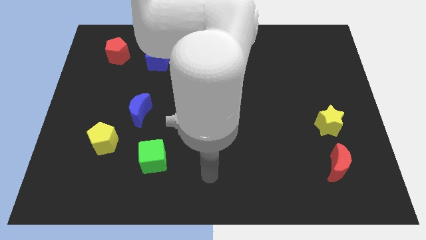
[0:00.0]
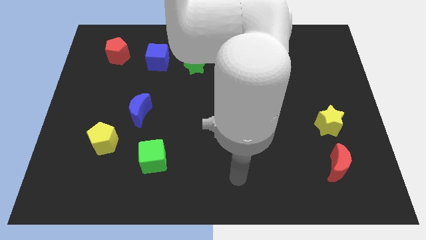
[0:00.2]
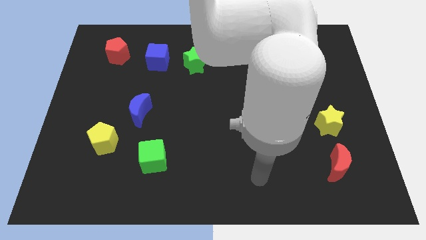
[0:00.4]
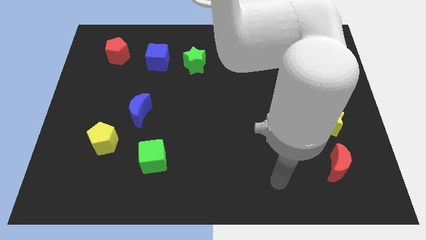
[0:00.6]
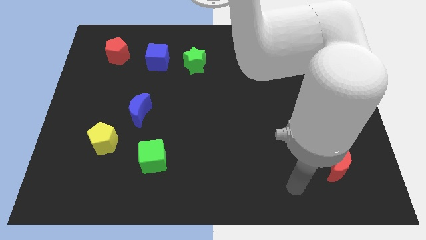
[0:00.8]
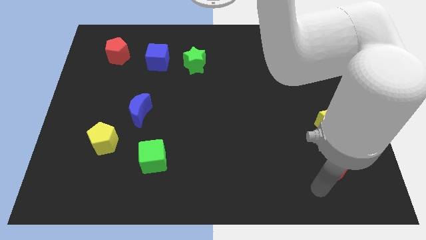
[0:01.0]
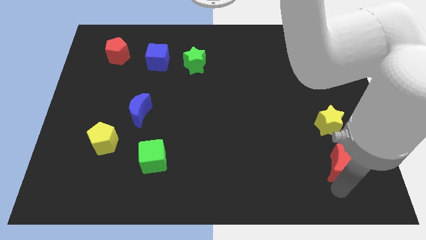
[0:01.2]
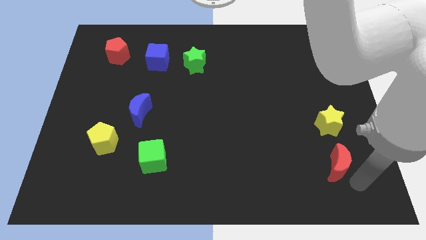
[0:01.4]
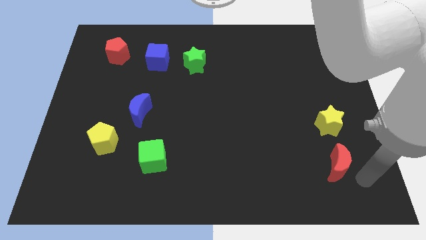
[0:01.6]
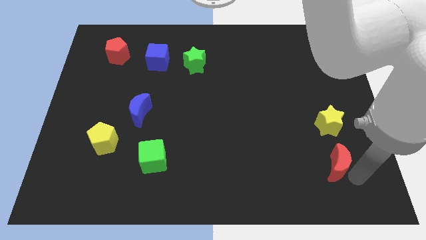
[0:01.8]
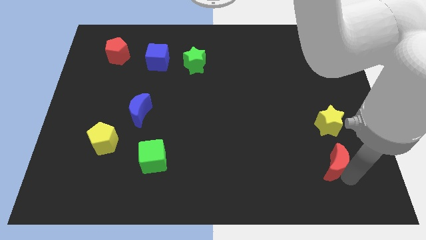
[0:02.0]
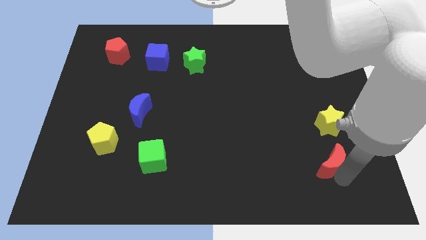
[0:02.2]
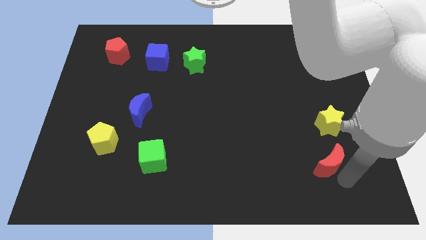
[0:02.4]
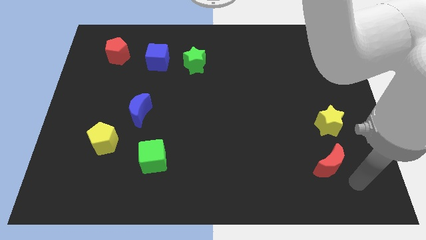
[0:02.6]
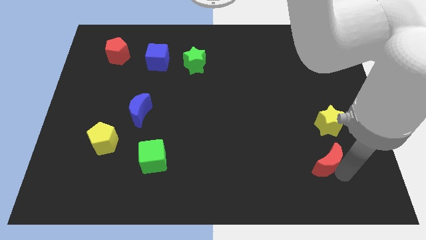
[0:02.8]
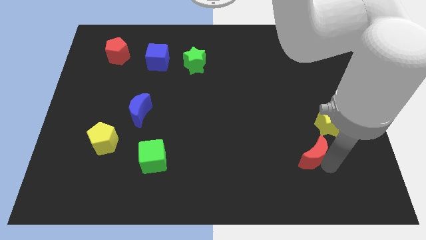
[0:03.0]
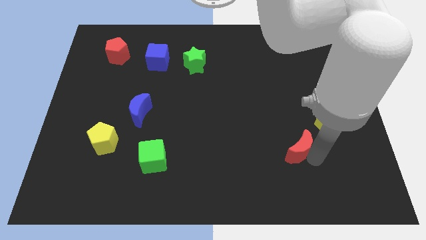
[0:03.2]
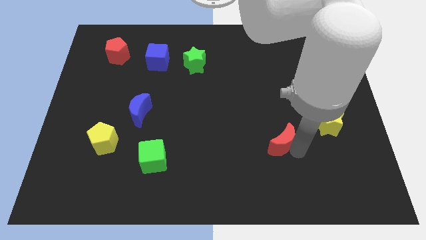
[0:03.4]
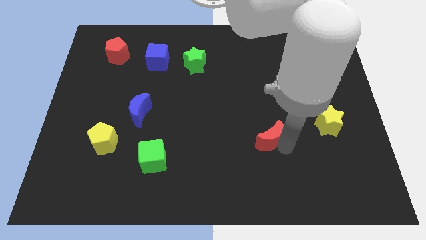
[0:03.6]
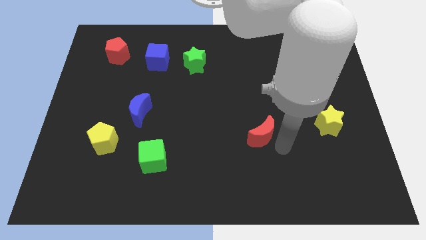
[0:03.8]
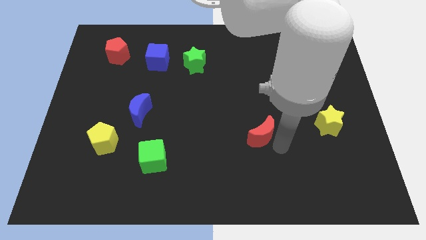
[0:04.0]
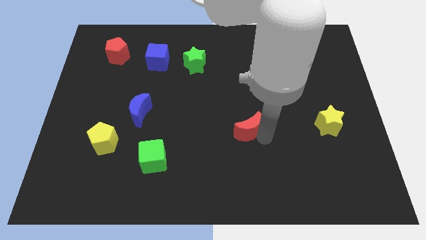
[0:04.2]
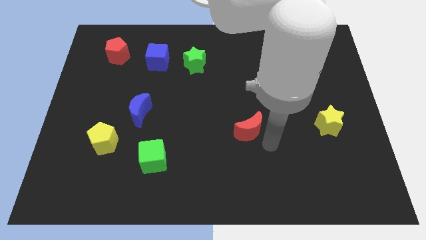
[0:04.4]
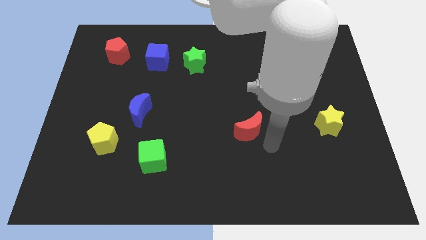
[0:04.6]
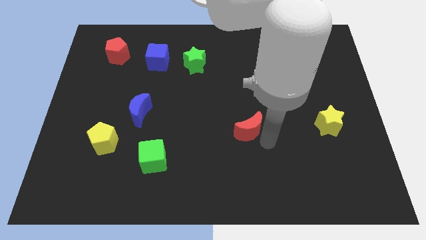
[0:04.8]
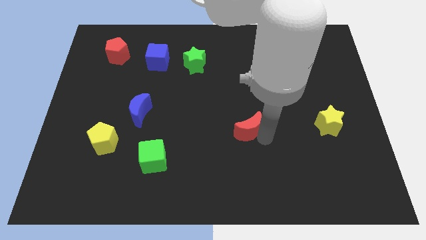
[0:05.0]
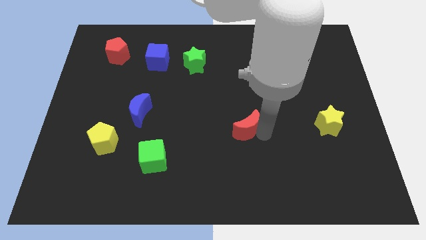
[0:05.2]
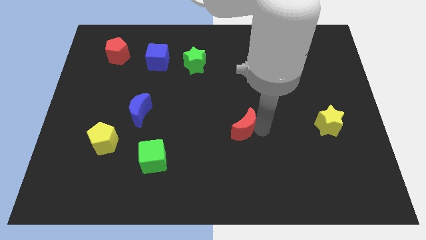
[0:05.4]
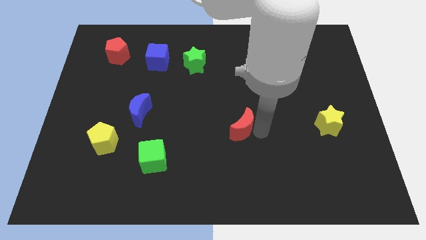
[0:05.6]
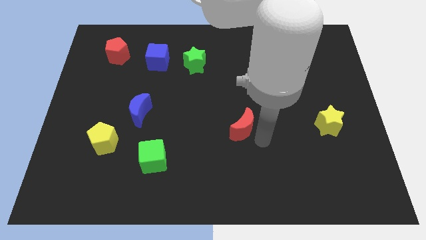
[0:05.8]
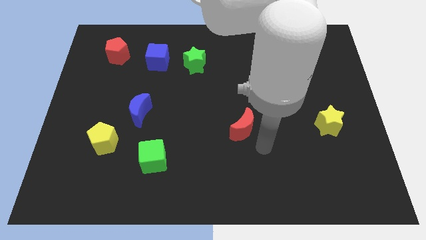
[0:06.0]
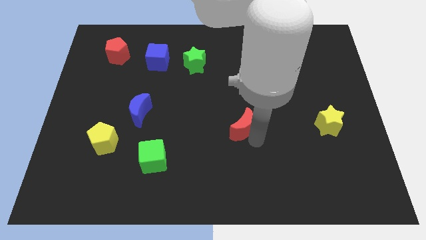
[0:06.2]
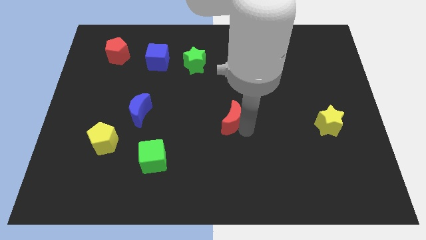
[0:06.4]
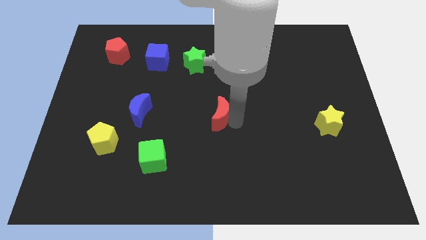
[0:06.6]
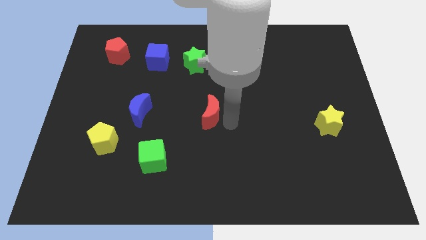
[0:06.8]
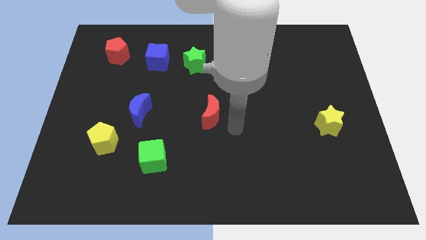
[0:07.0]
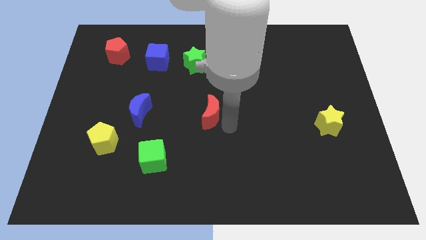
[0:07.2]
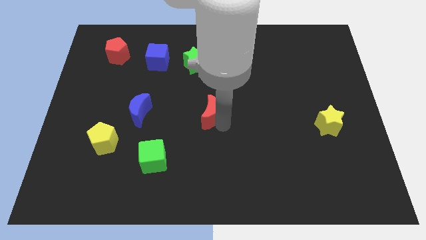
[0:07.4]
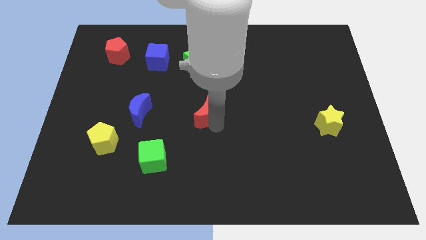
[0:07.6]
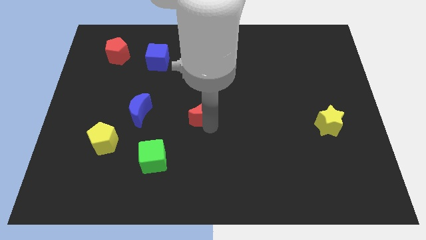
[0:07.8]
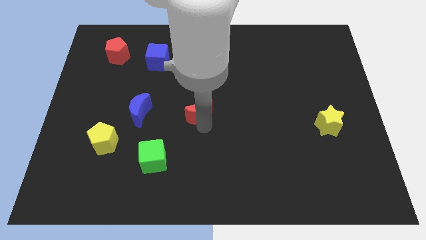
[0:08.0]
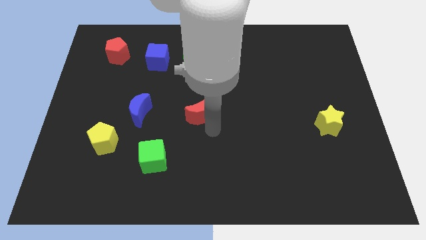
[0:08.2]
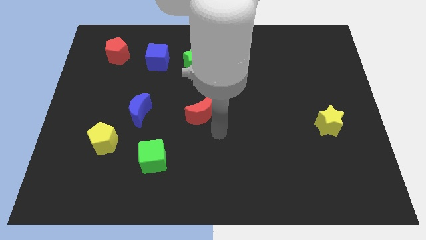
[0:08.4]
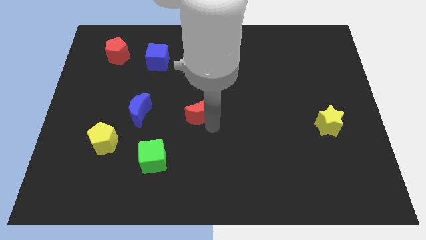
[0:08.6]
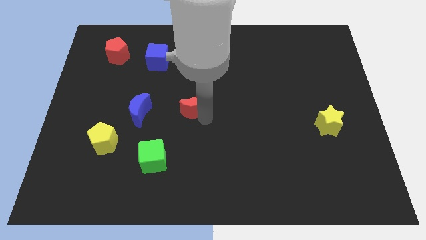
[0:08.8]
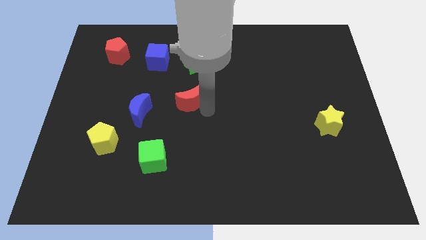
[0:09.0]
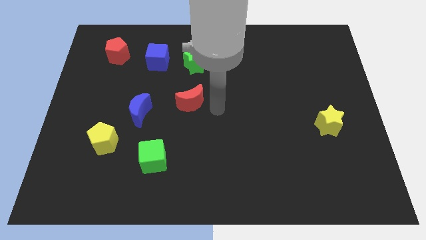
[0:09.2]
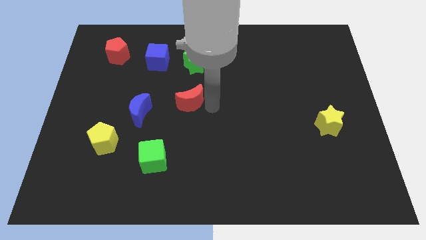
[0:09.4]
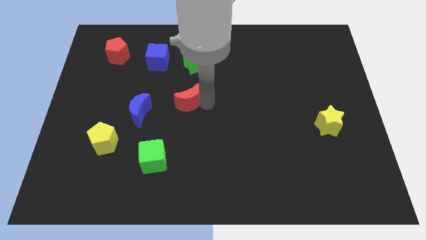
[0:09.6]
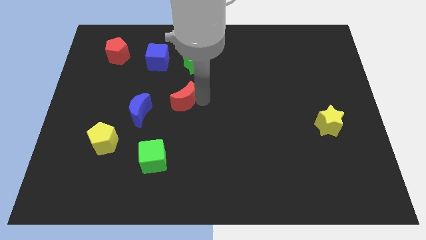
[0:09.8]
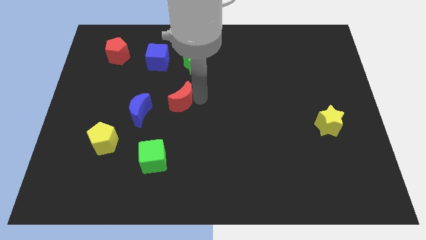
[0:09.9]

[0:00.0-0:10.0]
slide the red moon to the top right of the blue moon

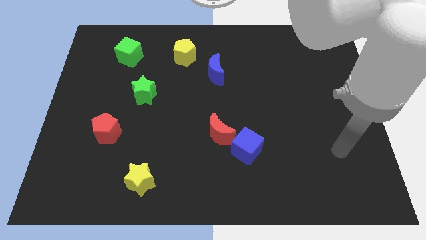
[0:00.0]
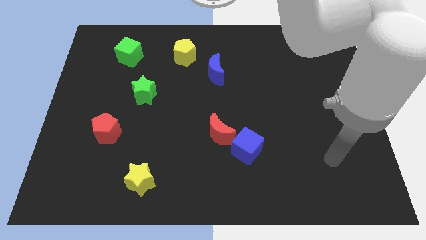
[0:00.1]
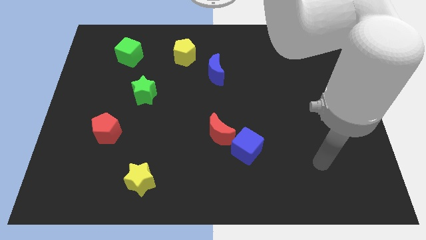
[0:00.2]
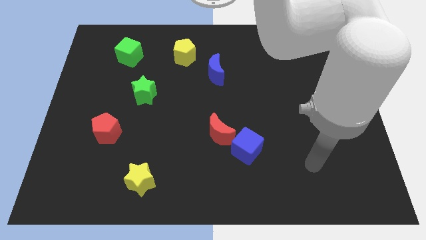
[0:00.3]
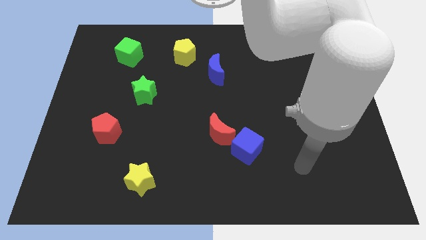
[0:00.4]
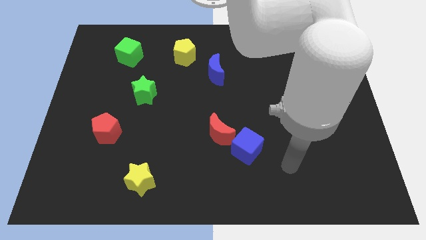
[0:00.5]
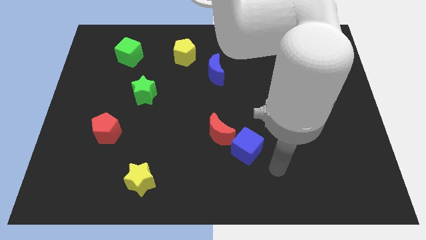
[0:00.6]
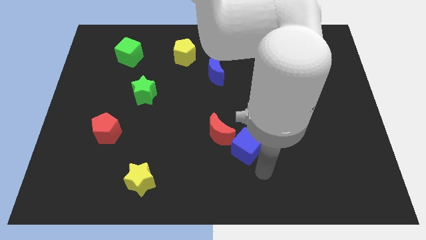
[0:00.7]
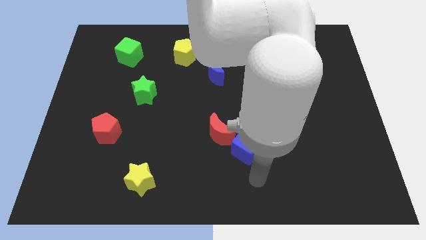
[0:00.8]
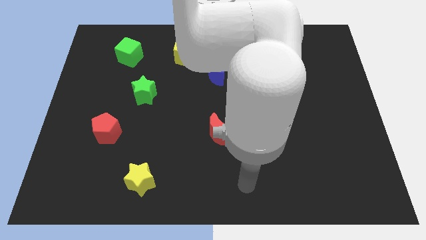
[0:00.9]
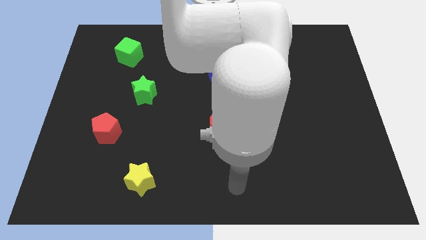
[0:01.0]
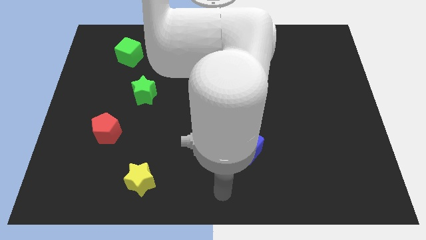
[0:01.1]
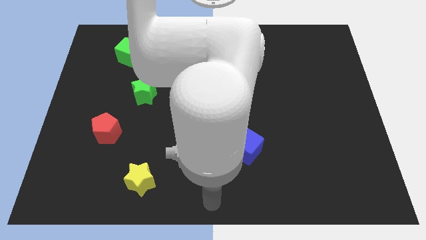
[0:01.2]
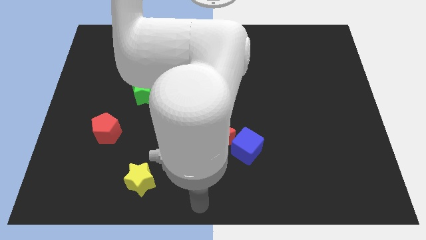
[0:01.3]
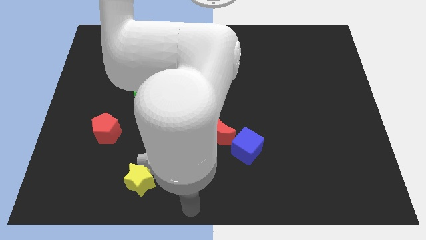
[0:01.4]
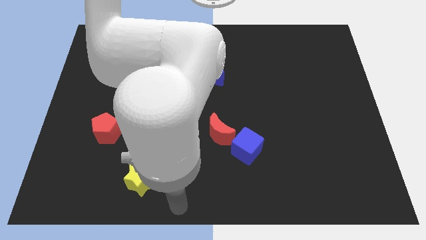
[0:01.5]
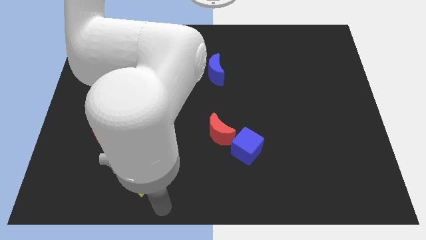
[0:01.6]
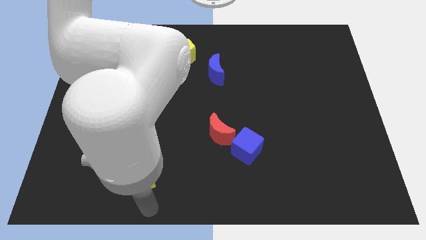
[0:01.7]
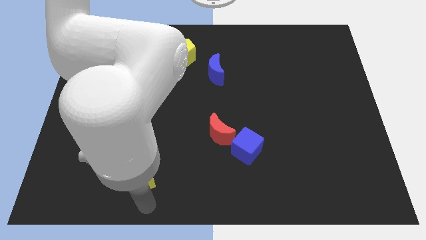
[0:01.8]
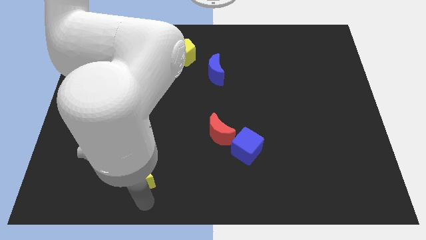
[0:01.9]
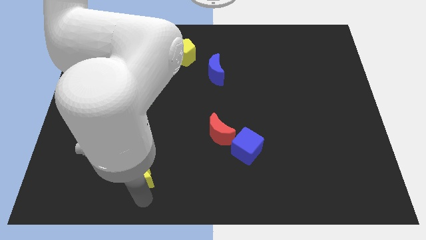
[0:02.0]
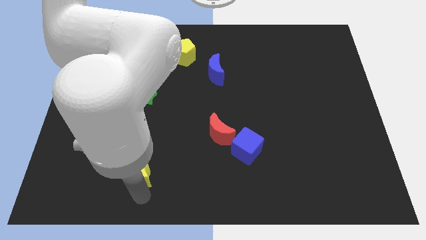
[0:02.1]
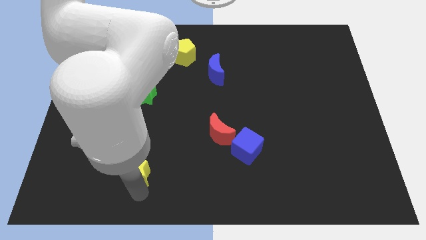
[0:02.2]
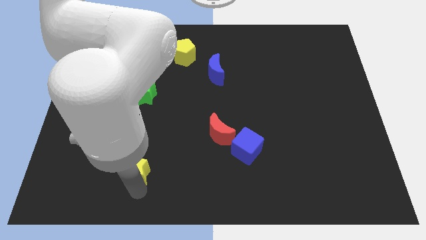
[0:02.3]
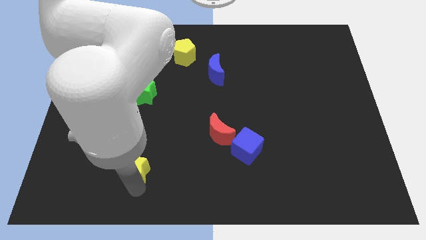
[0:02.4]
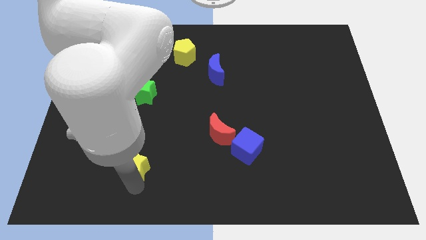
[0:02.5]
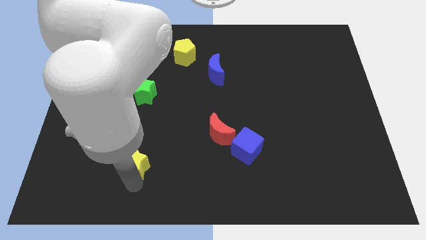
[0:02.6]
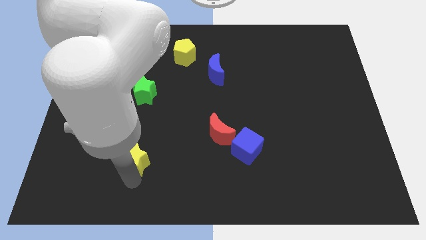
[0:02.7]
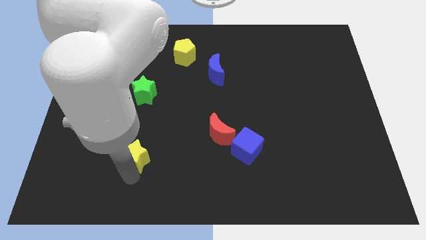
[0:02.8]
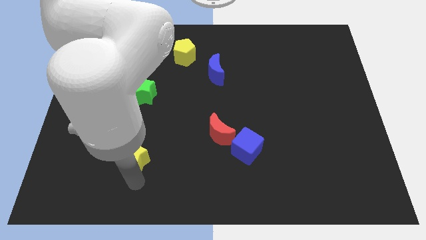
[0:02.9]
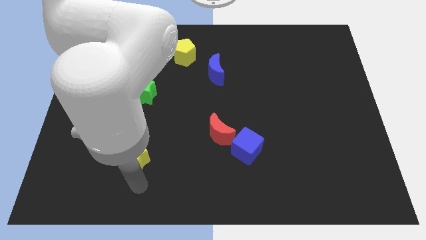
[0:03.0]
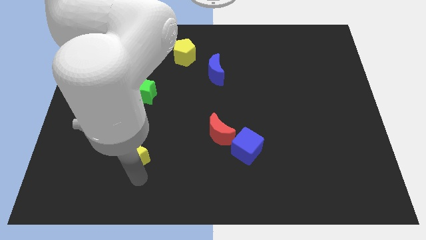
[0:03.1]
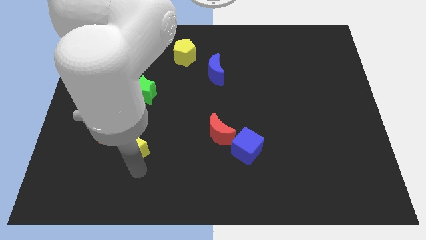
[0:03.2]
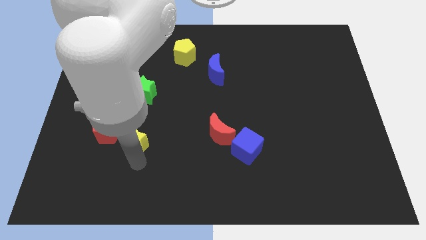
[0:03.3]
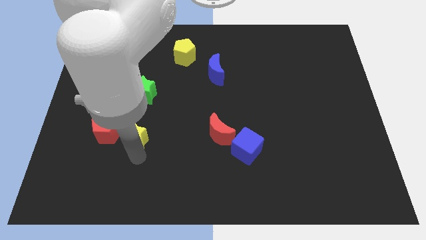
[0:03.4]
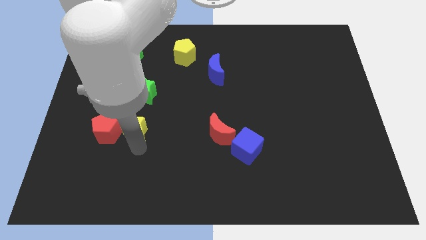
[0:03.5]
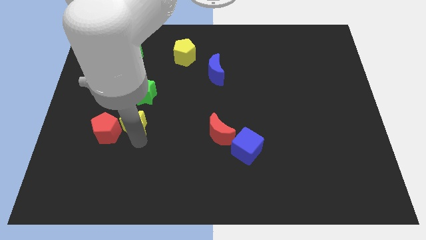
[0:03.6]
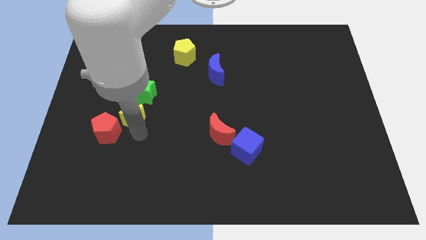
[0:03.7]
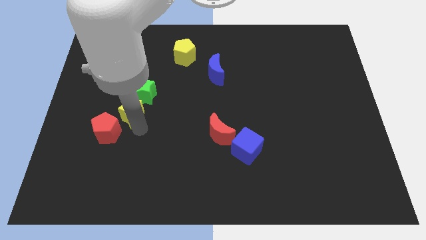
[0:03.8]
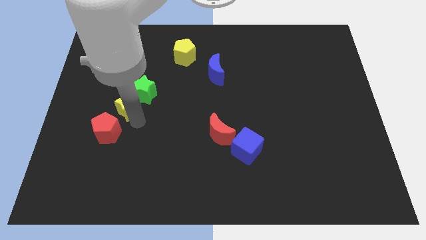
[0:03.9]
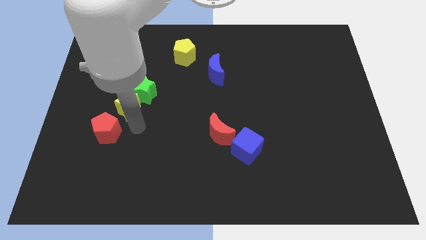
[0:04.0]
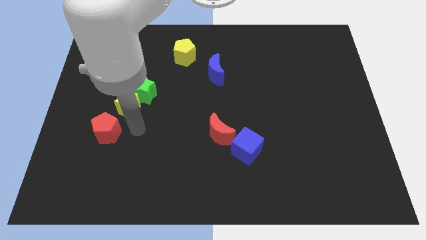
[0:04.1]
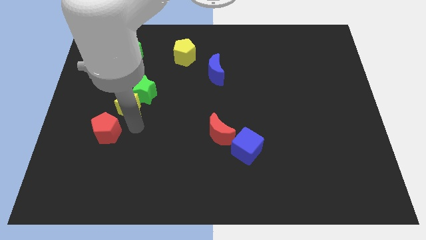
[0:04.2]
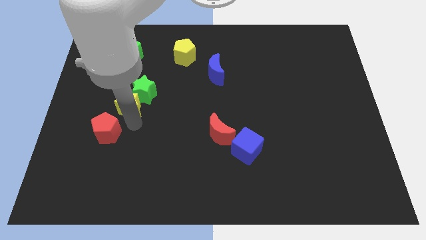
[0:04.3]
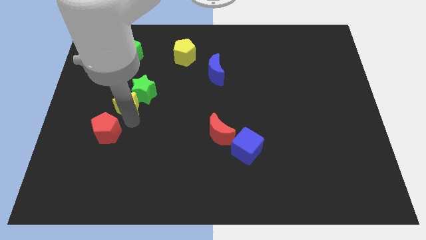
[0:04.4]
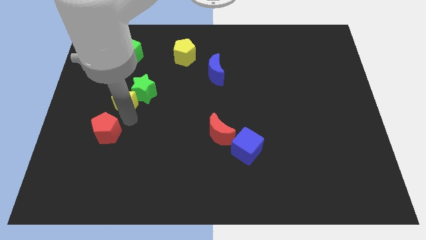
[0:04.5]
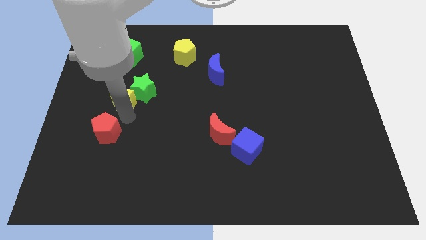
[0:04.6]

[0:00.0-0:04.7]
move the yellow star below the green cube
